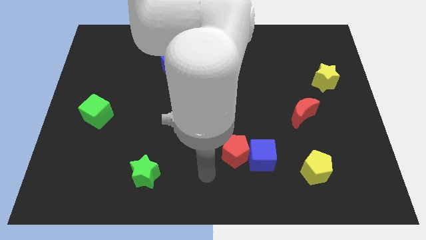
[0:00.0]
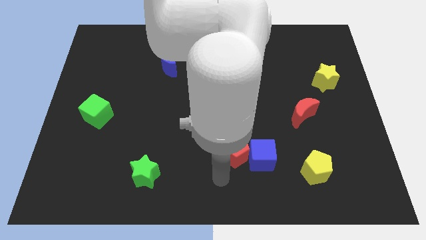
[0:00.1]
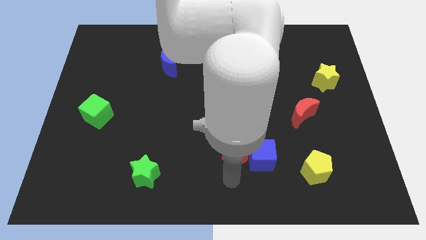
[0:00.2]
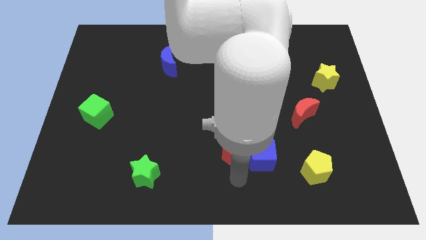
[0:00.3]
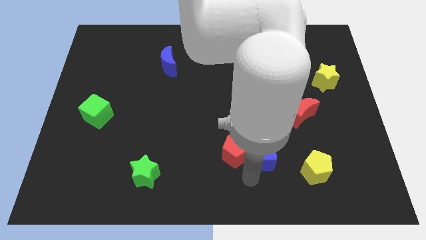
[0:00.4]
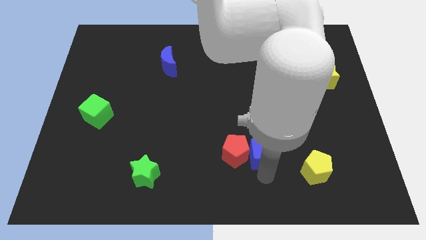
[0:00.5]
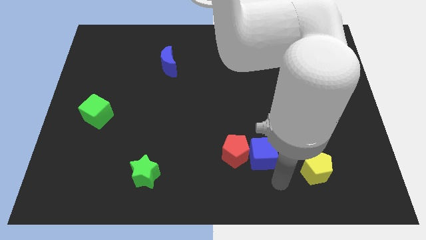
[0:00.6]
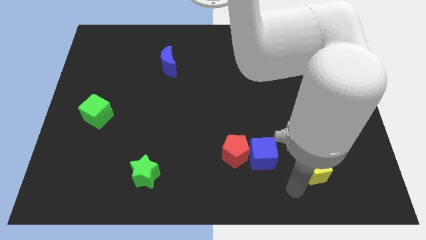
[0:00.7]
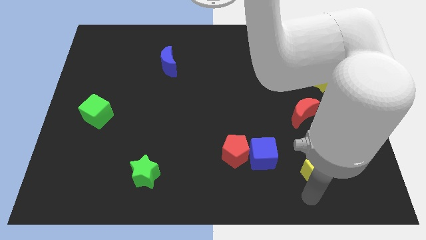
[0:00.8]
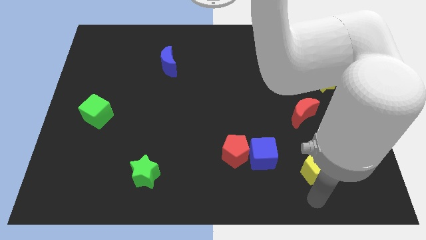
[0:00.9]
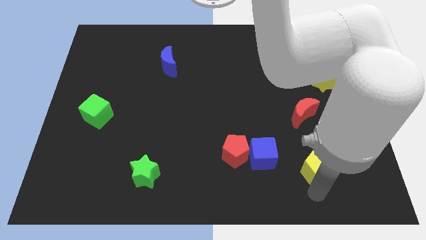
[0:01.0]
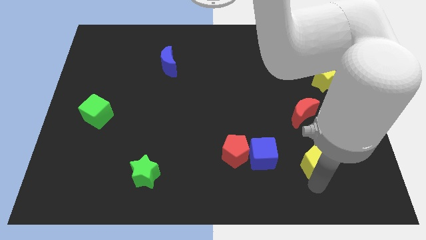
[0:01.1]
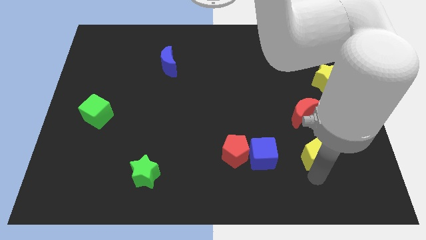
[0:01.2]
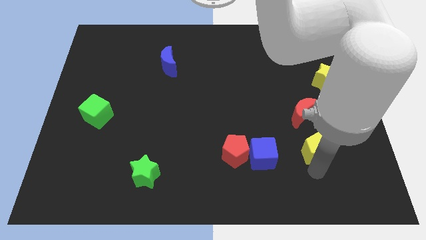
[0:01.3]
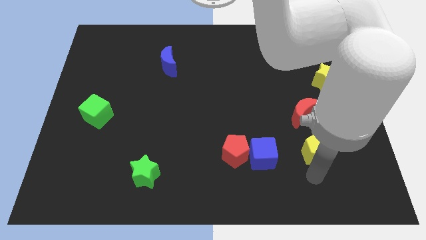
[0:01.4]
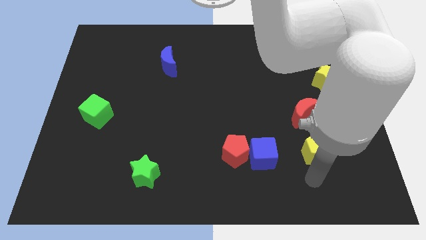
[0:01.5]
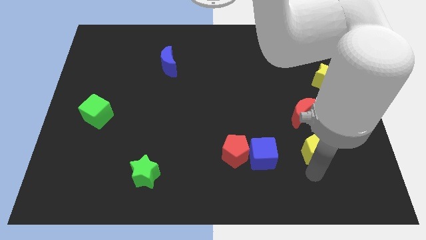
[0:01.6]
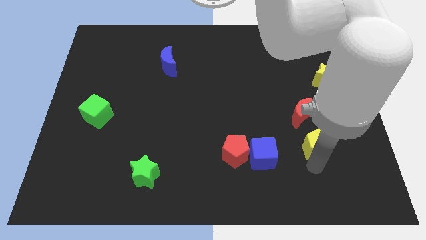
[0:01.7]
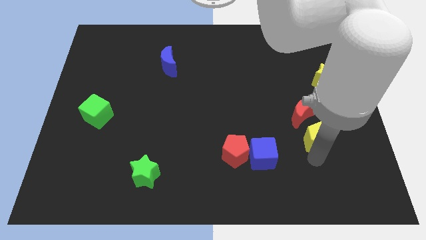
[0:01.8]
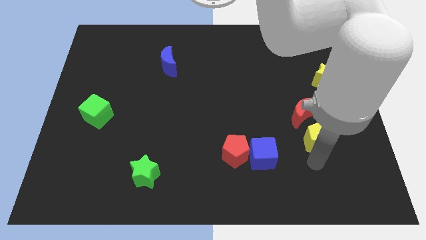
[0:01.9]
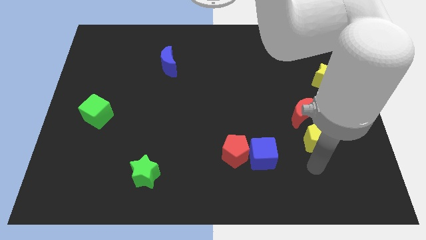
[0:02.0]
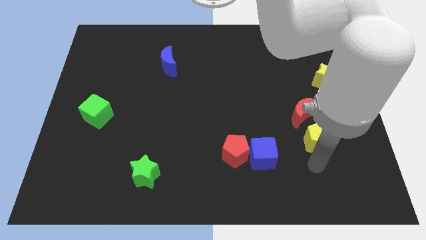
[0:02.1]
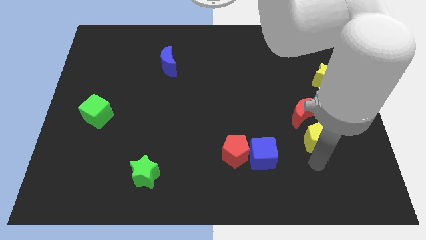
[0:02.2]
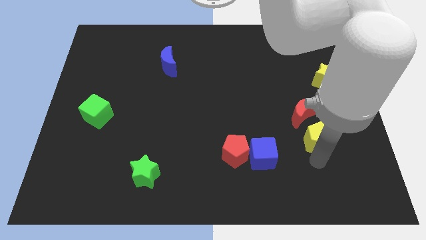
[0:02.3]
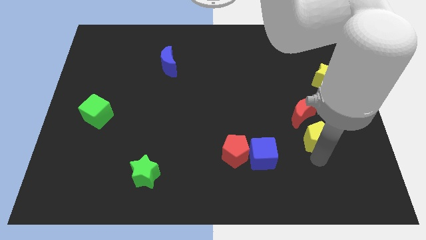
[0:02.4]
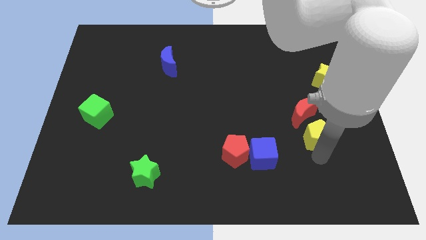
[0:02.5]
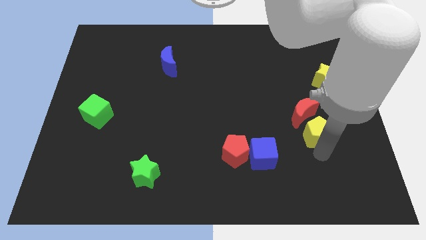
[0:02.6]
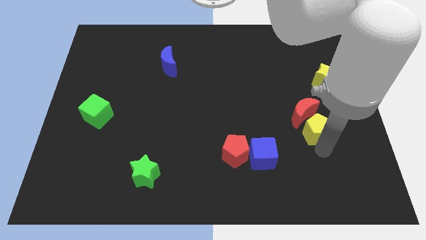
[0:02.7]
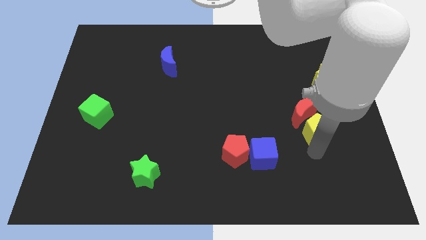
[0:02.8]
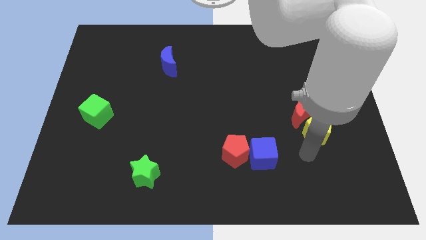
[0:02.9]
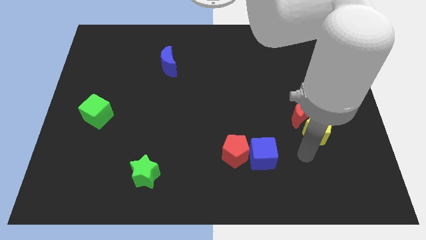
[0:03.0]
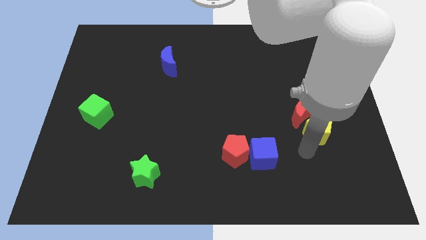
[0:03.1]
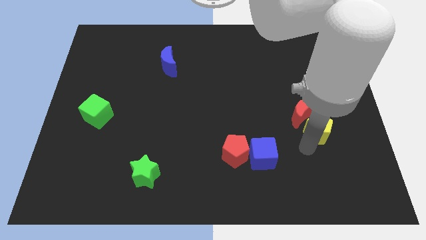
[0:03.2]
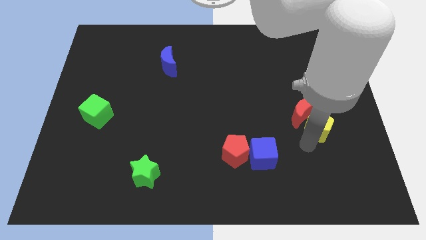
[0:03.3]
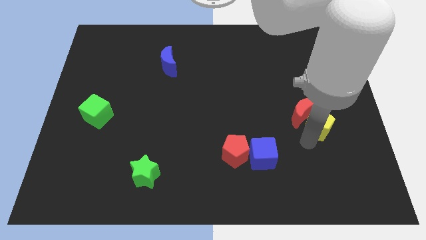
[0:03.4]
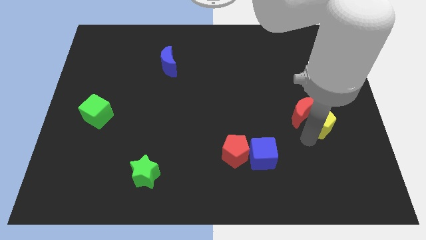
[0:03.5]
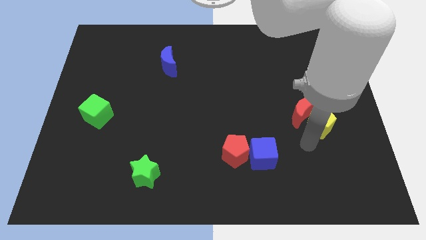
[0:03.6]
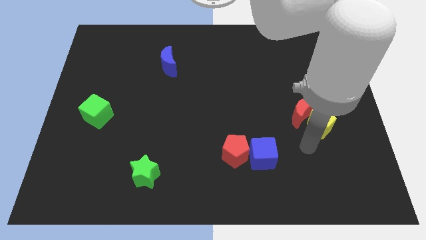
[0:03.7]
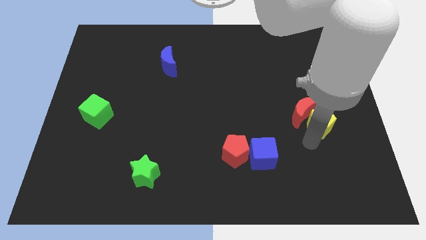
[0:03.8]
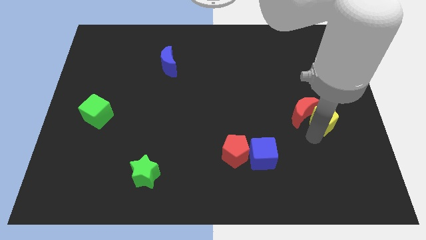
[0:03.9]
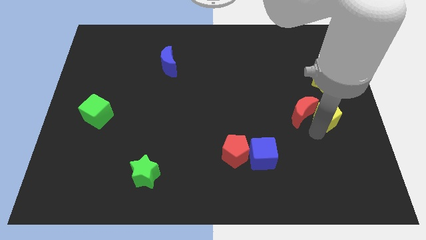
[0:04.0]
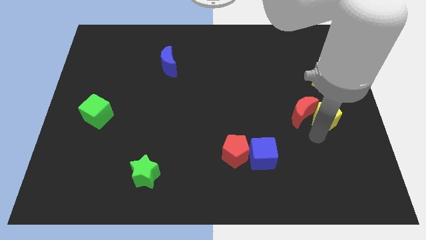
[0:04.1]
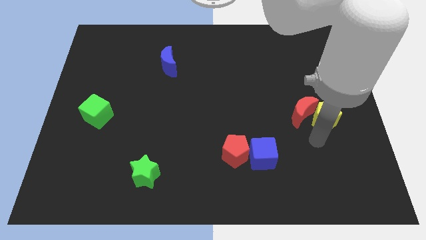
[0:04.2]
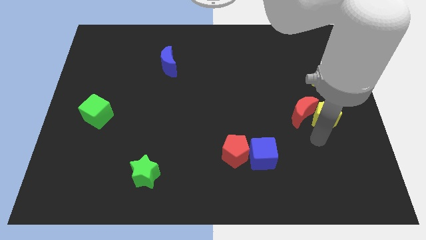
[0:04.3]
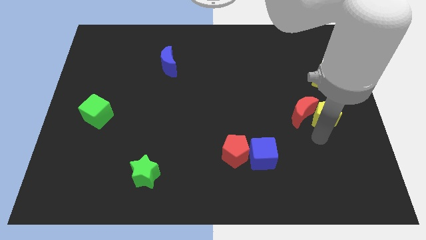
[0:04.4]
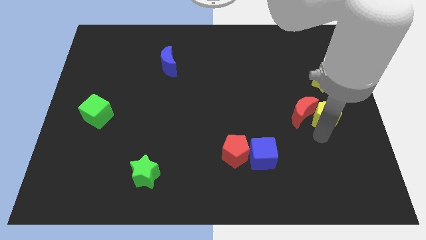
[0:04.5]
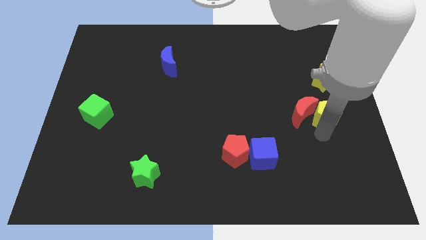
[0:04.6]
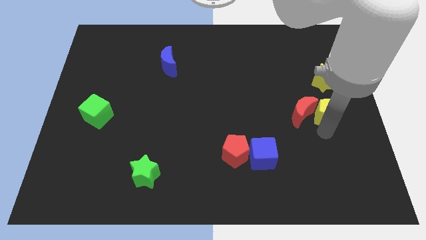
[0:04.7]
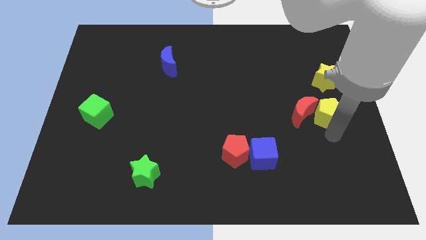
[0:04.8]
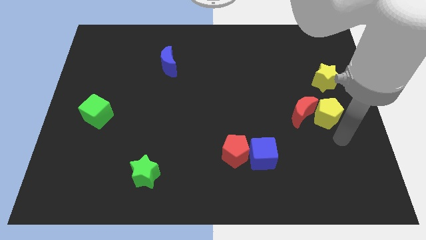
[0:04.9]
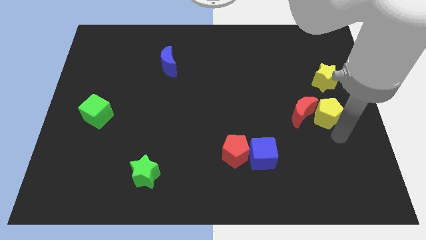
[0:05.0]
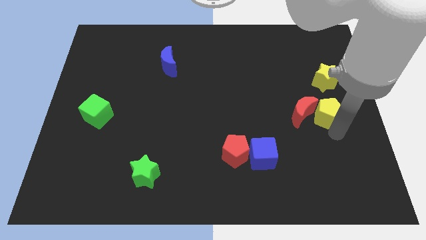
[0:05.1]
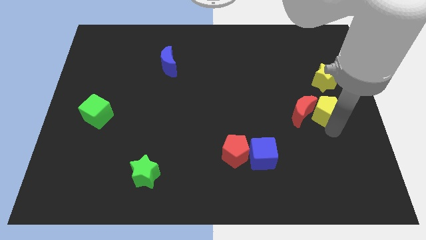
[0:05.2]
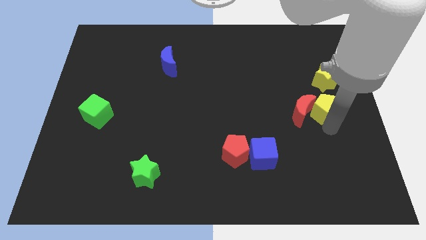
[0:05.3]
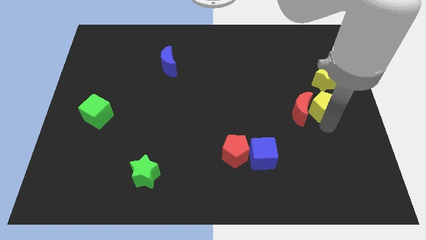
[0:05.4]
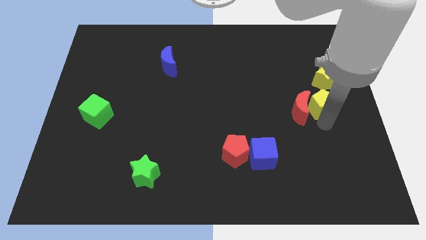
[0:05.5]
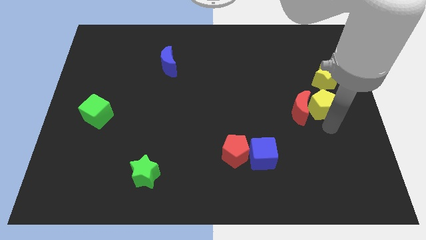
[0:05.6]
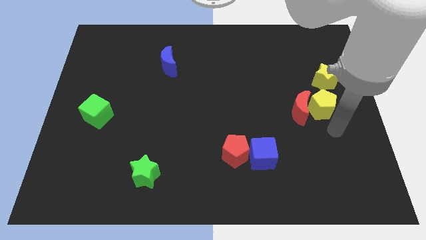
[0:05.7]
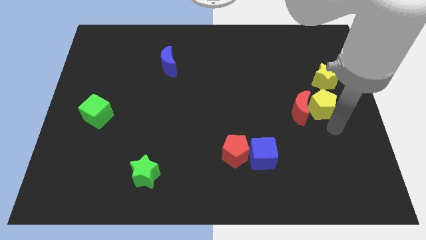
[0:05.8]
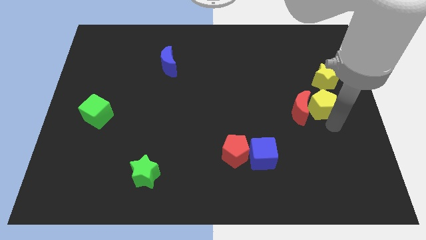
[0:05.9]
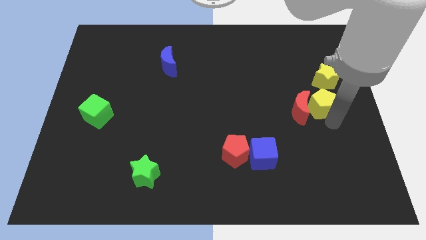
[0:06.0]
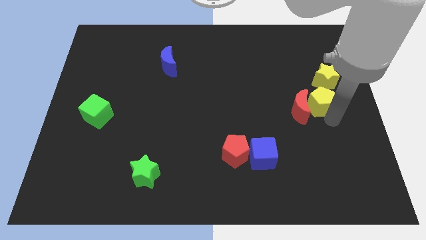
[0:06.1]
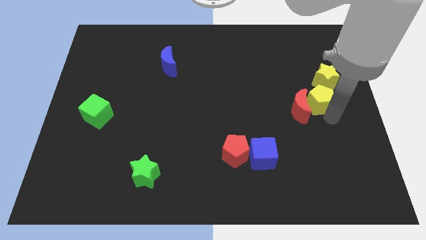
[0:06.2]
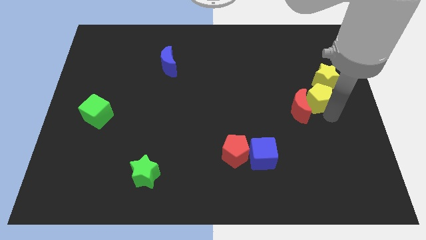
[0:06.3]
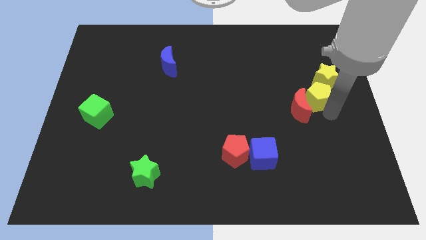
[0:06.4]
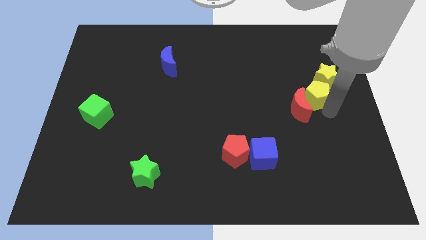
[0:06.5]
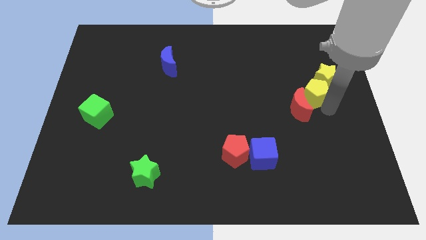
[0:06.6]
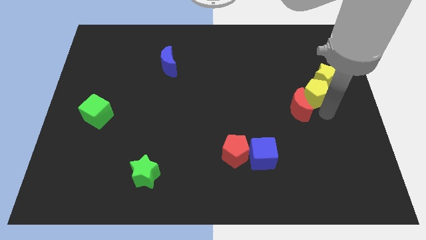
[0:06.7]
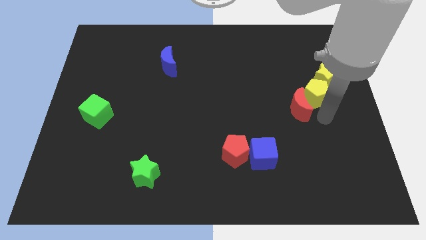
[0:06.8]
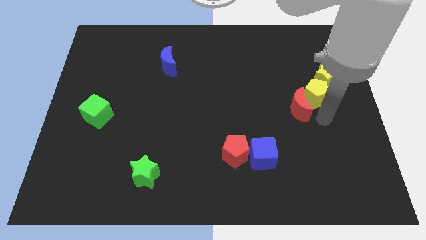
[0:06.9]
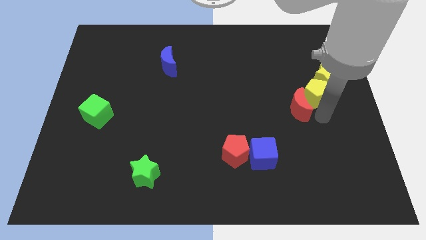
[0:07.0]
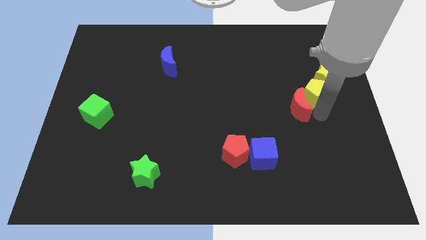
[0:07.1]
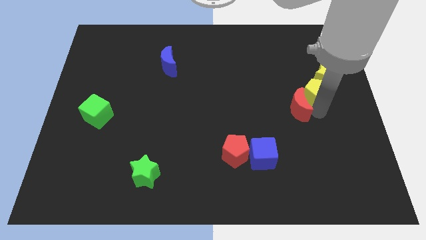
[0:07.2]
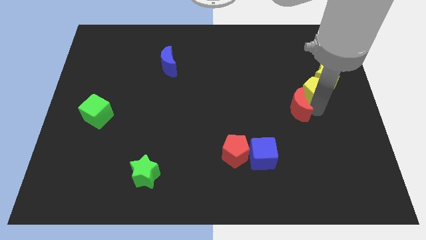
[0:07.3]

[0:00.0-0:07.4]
slide the yellow pentagon upwards

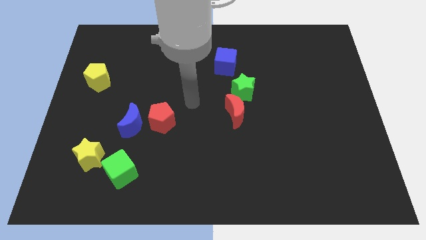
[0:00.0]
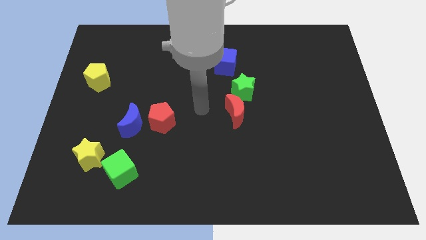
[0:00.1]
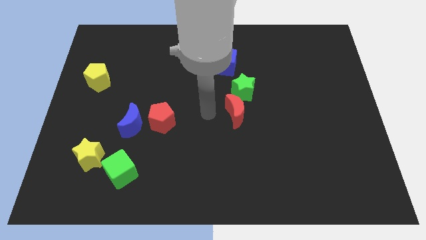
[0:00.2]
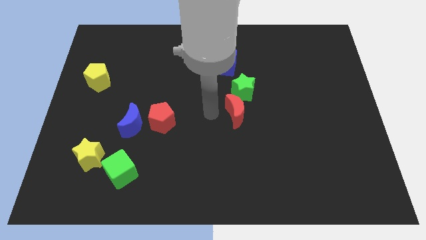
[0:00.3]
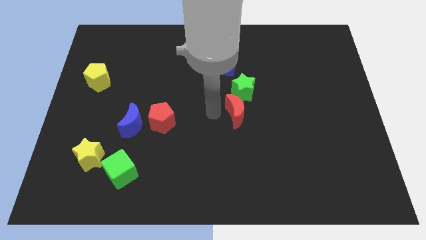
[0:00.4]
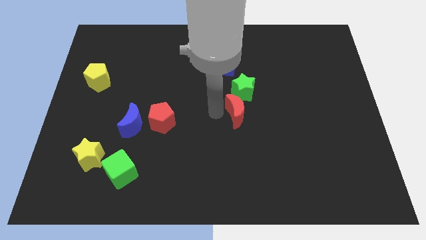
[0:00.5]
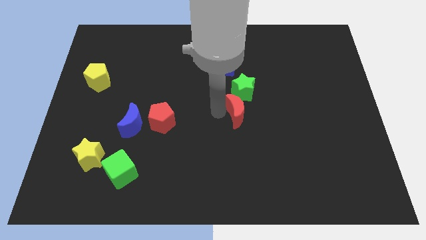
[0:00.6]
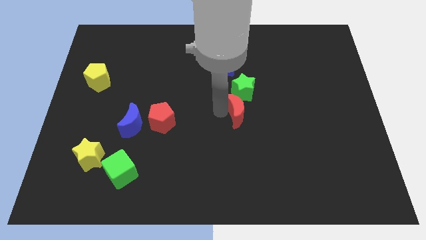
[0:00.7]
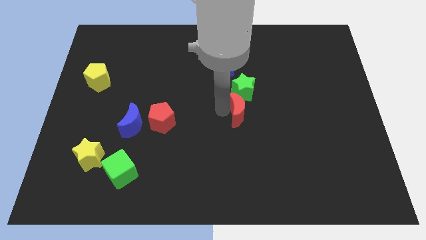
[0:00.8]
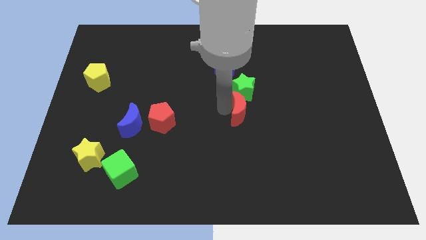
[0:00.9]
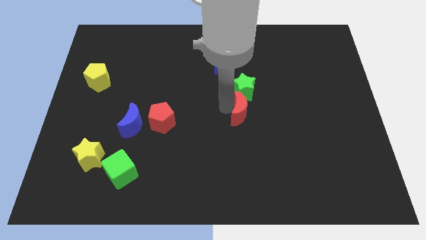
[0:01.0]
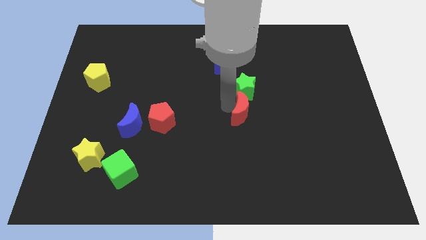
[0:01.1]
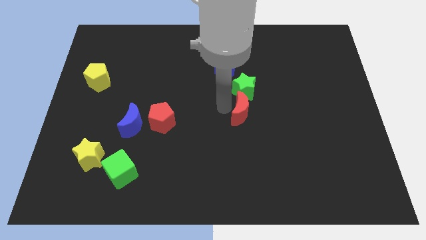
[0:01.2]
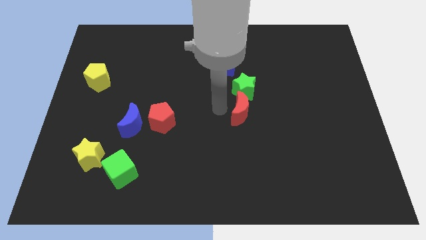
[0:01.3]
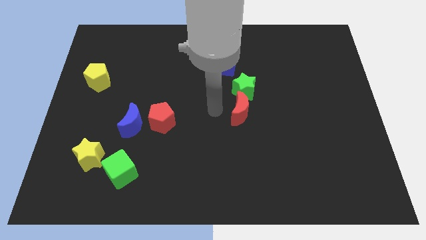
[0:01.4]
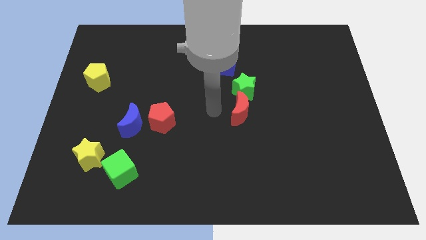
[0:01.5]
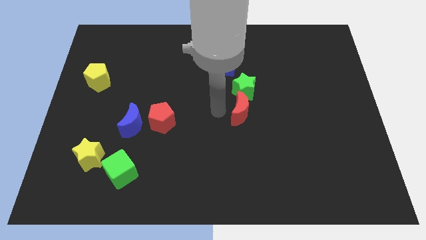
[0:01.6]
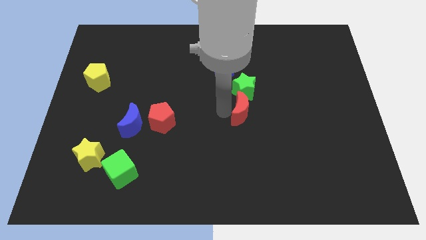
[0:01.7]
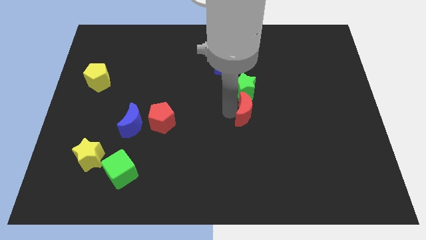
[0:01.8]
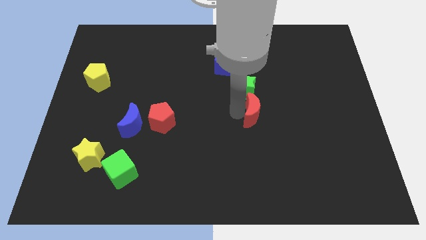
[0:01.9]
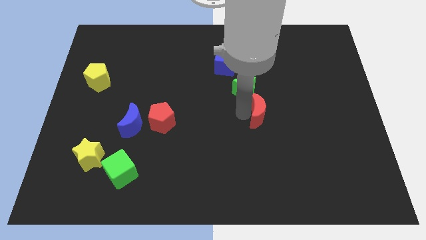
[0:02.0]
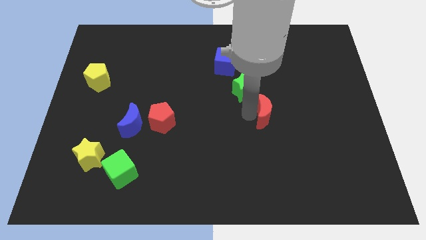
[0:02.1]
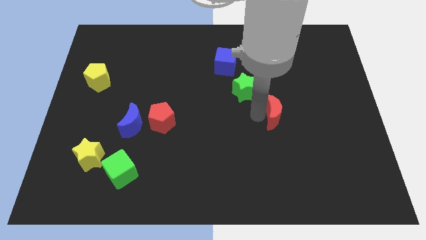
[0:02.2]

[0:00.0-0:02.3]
push the red moon to the right a little bit
